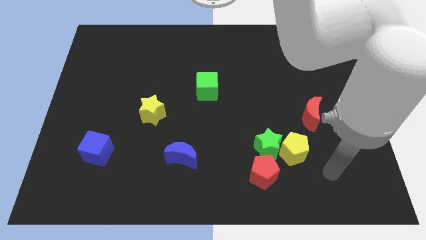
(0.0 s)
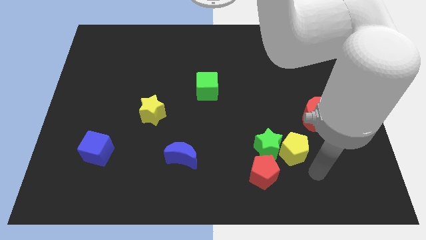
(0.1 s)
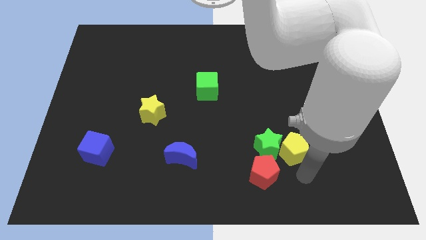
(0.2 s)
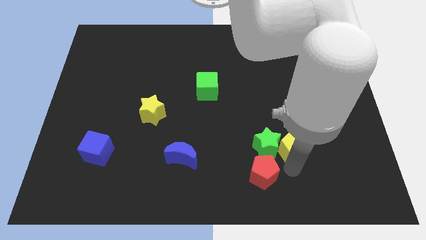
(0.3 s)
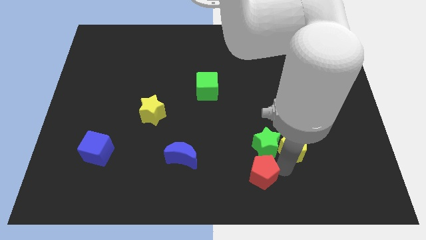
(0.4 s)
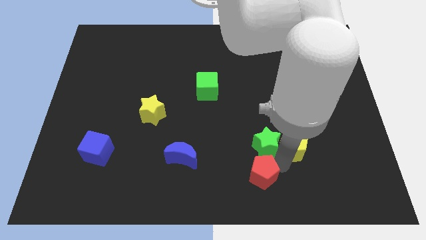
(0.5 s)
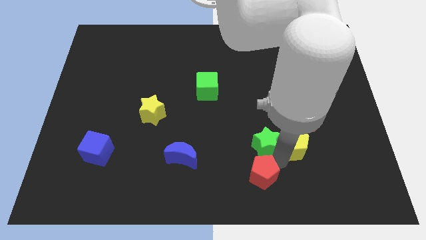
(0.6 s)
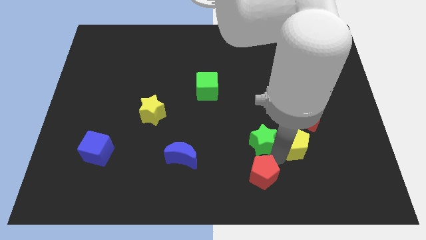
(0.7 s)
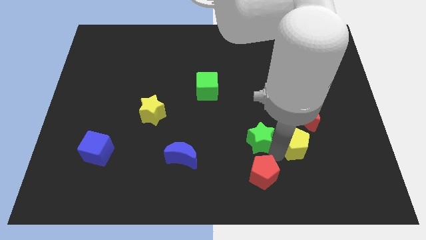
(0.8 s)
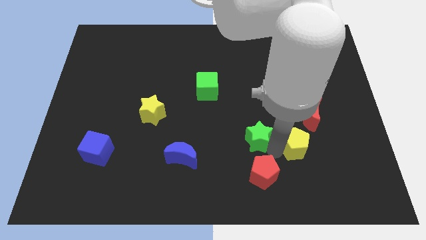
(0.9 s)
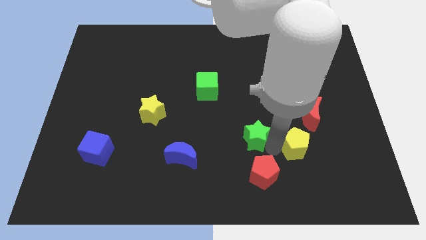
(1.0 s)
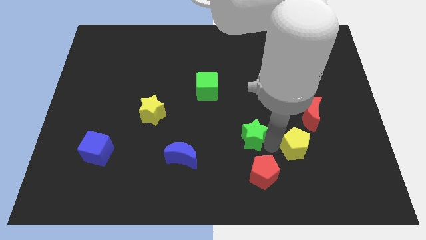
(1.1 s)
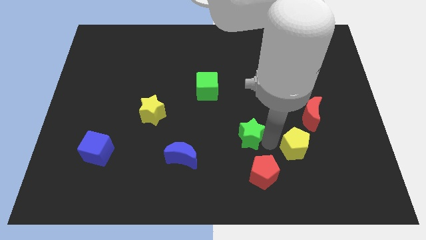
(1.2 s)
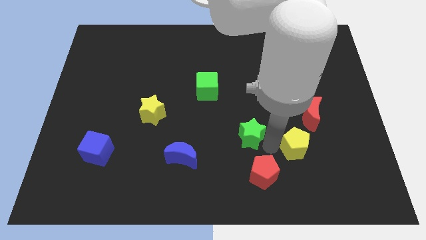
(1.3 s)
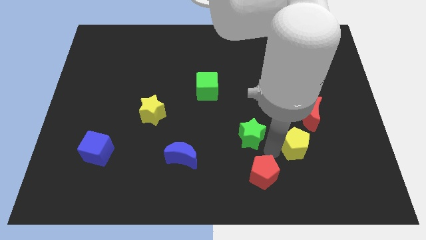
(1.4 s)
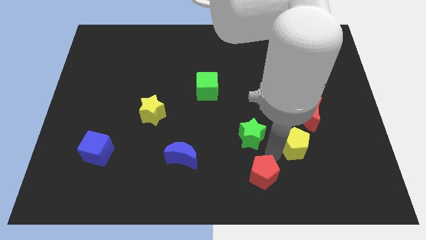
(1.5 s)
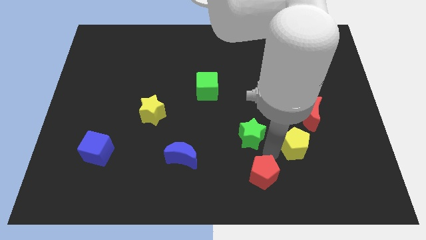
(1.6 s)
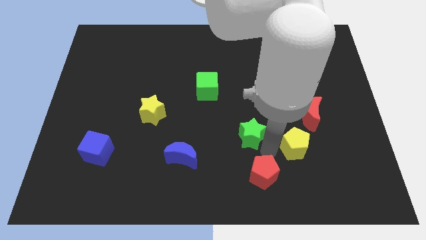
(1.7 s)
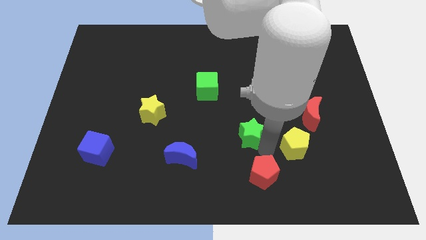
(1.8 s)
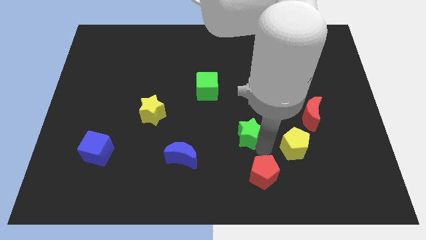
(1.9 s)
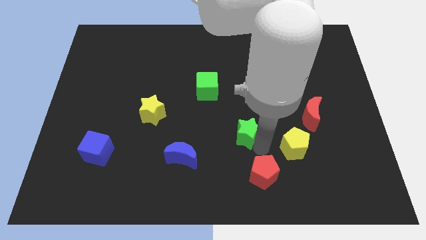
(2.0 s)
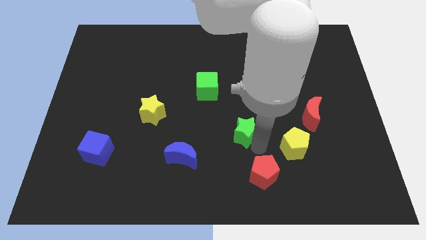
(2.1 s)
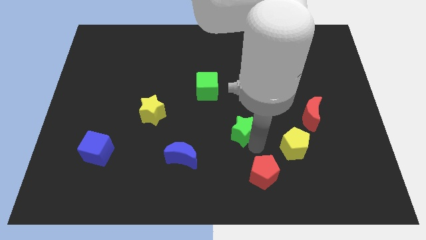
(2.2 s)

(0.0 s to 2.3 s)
move the green star away from the yellow pentagon and red pentagon

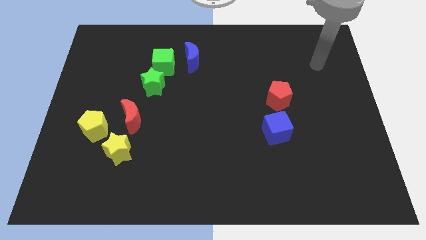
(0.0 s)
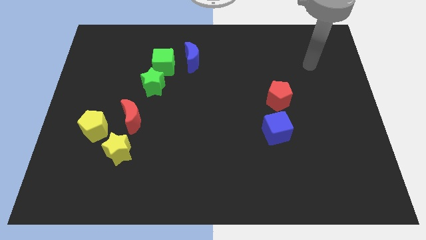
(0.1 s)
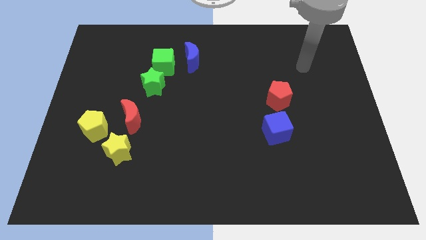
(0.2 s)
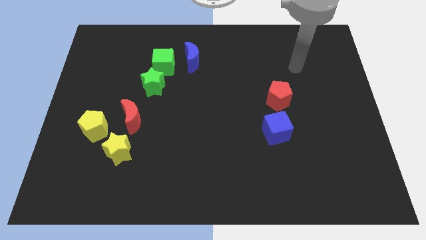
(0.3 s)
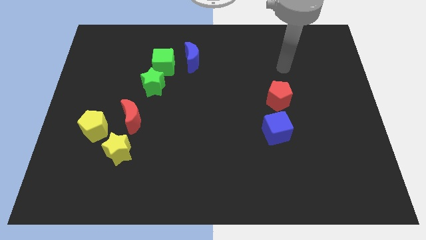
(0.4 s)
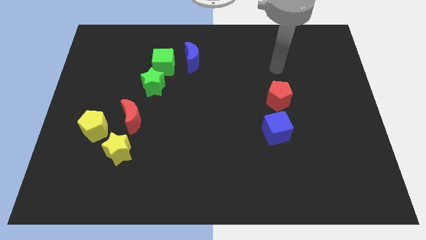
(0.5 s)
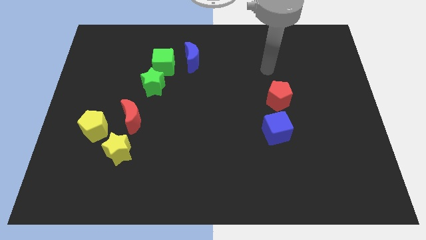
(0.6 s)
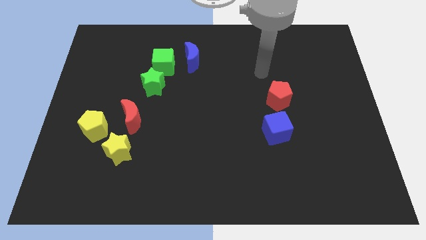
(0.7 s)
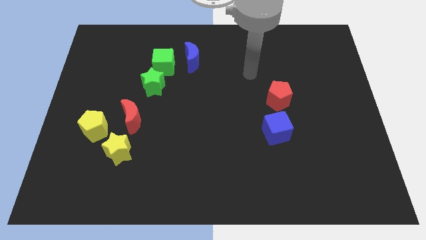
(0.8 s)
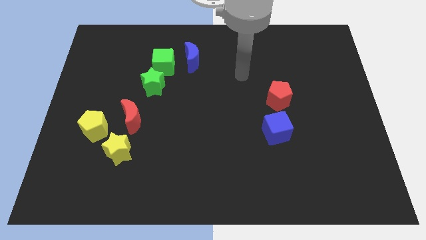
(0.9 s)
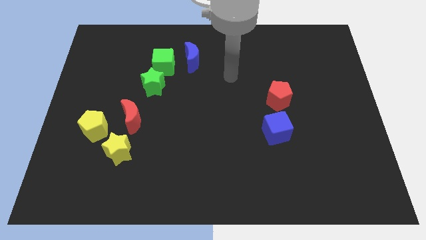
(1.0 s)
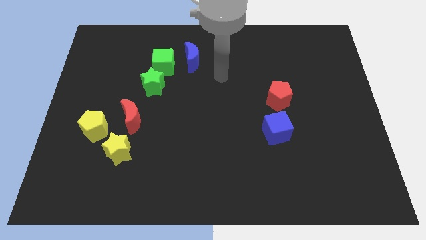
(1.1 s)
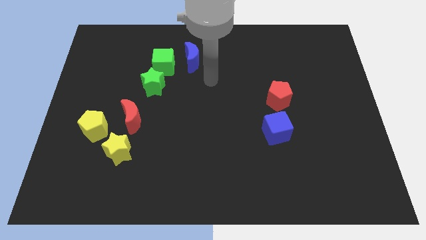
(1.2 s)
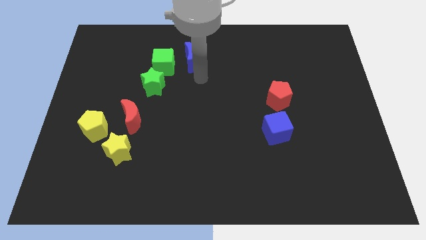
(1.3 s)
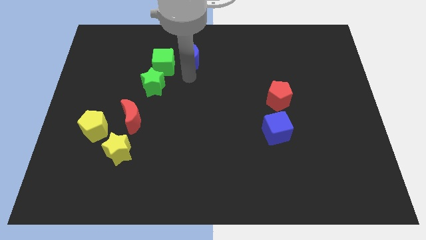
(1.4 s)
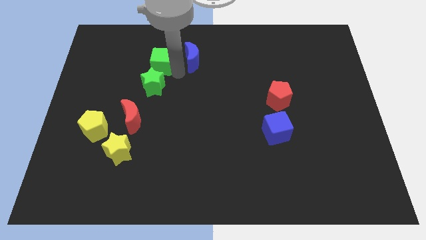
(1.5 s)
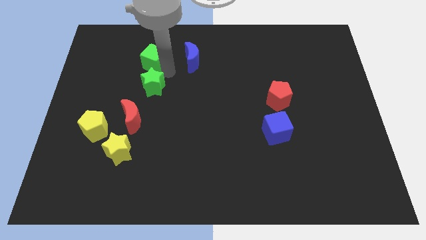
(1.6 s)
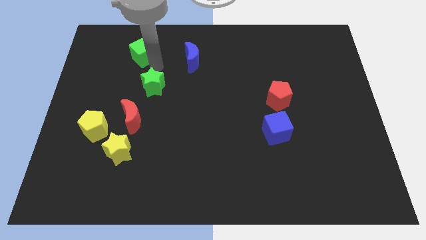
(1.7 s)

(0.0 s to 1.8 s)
pull the green star apart from the green cube

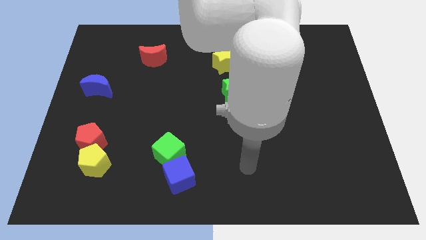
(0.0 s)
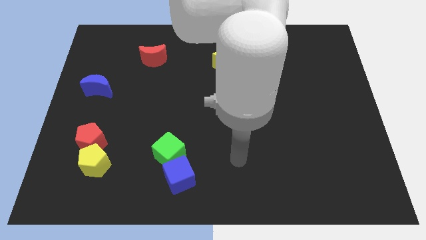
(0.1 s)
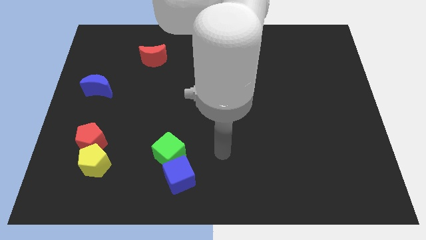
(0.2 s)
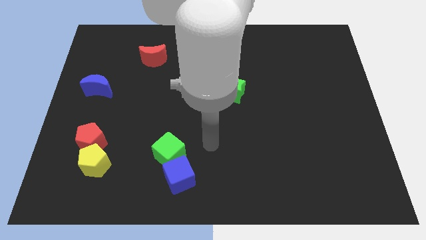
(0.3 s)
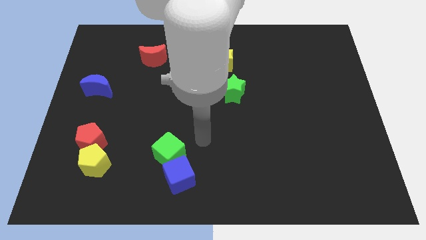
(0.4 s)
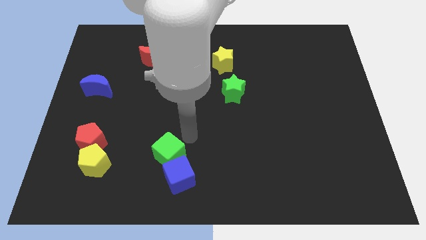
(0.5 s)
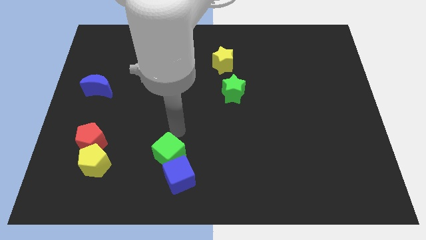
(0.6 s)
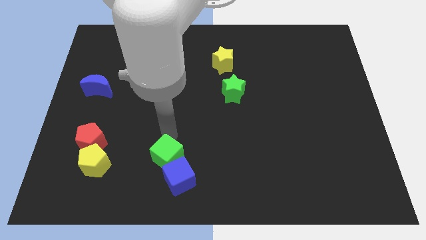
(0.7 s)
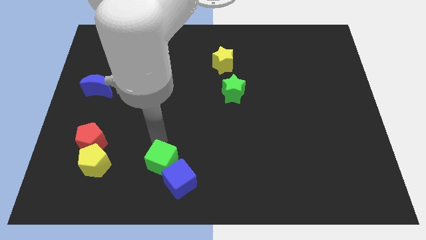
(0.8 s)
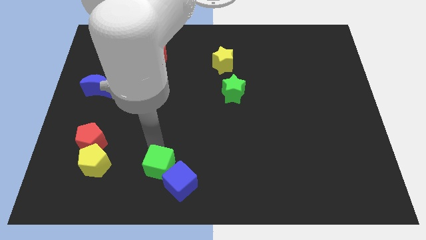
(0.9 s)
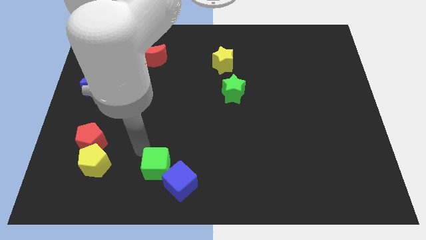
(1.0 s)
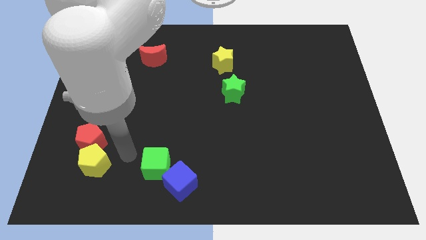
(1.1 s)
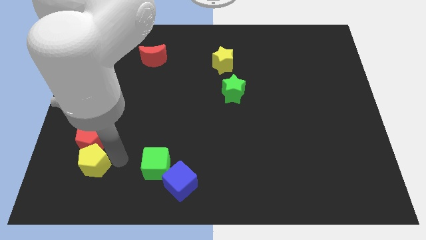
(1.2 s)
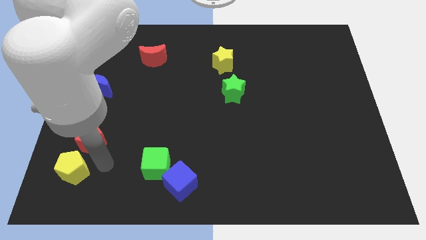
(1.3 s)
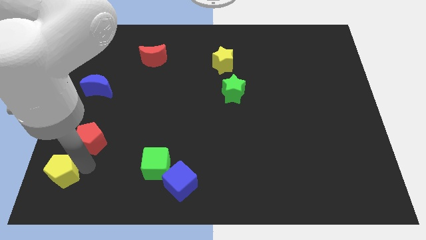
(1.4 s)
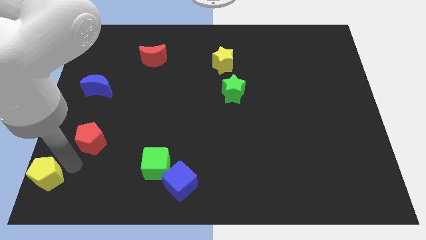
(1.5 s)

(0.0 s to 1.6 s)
separate the red pentagon from the yellow pentagon

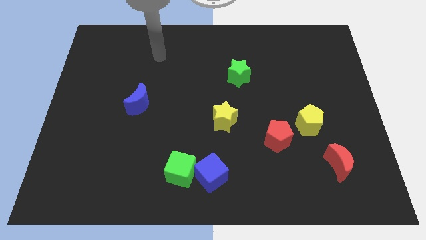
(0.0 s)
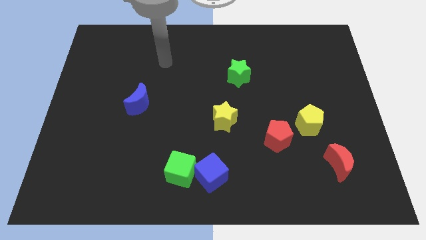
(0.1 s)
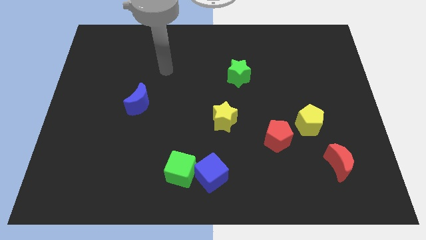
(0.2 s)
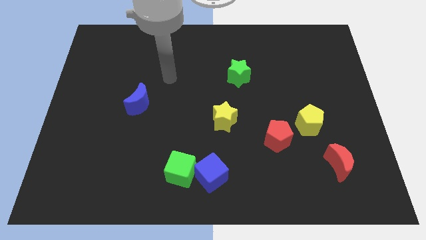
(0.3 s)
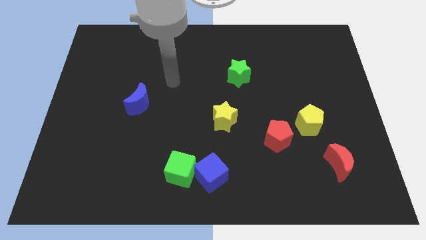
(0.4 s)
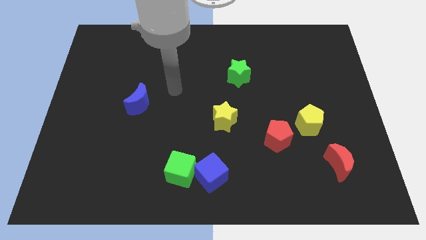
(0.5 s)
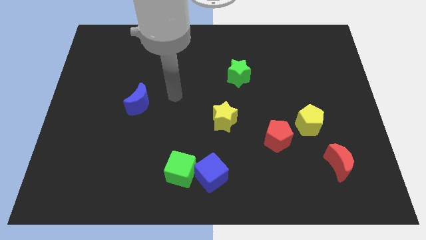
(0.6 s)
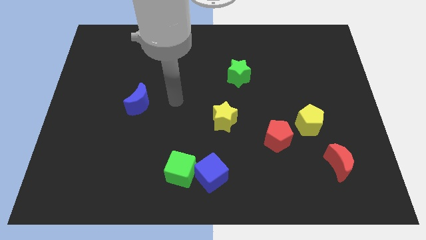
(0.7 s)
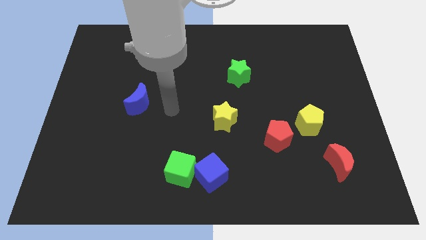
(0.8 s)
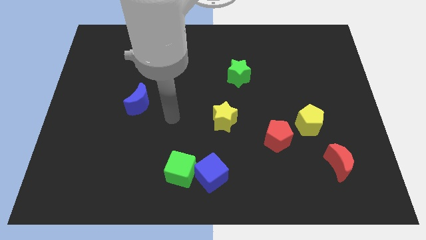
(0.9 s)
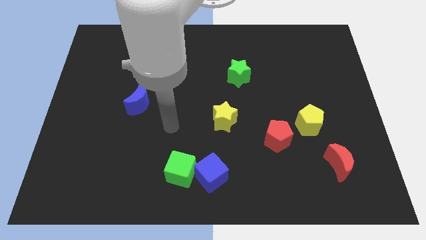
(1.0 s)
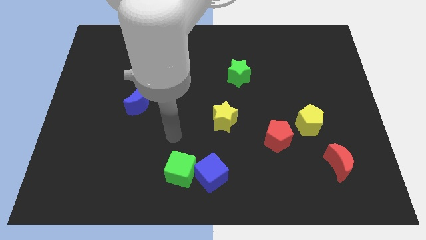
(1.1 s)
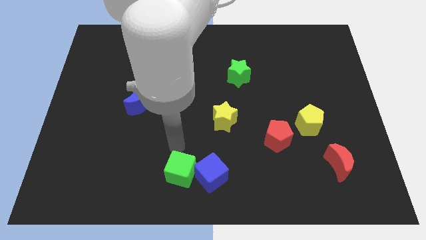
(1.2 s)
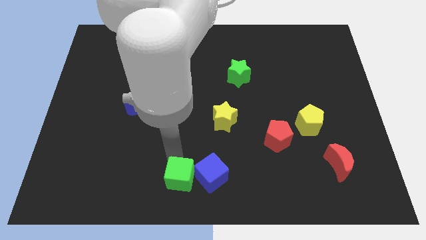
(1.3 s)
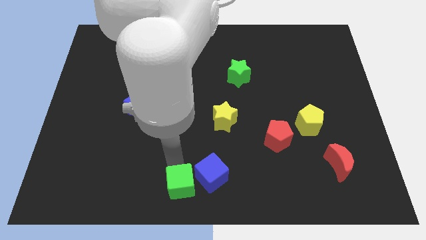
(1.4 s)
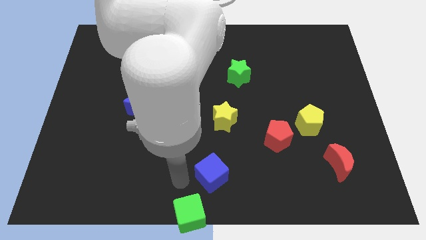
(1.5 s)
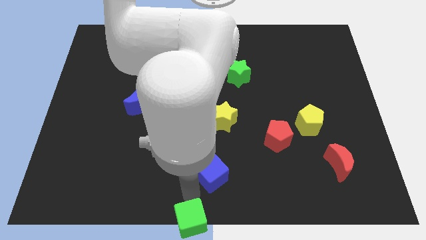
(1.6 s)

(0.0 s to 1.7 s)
pull the blue cube apart from the green cube

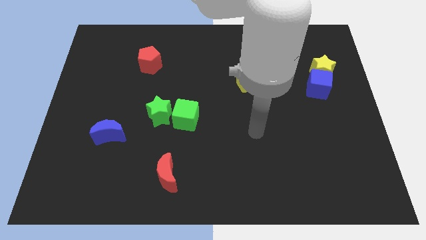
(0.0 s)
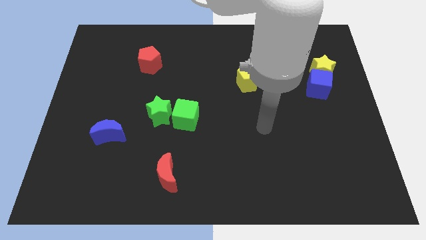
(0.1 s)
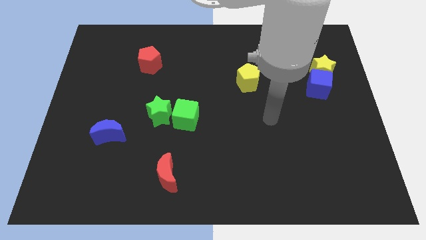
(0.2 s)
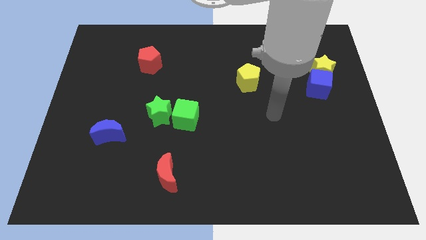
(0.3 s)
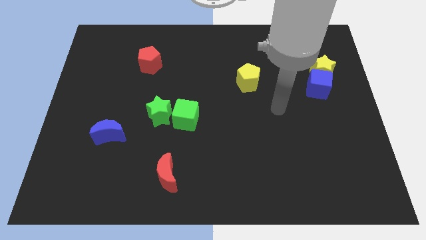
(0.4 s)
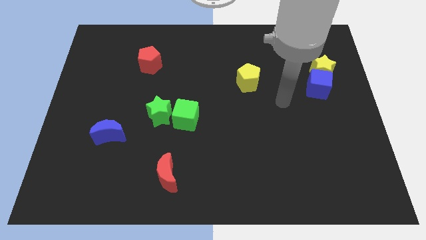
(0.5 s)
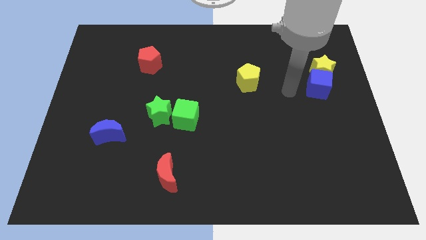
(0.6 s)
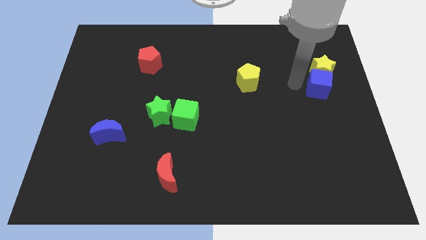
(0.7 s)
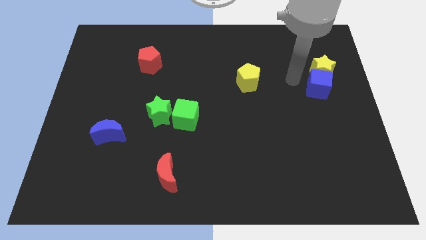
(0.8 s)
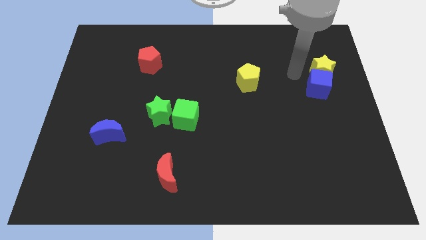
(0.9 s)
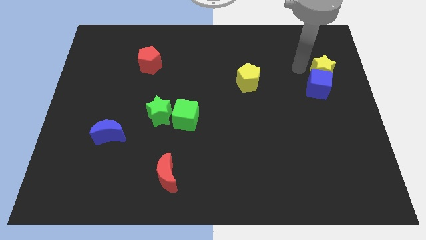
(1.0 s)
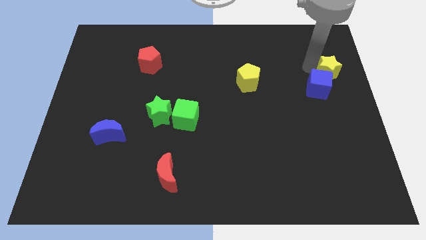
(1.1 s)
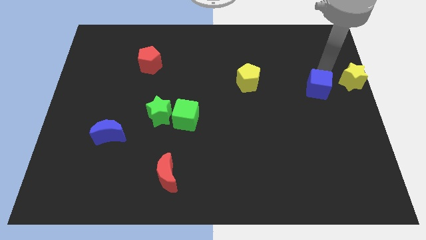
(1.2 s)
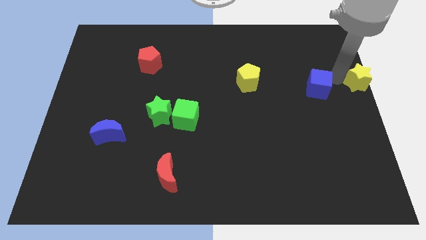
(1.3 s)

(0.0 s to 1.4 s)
separate the blue cube from the yellow star

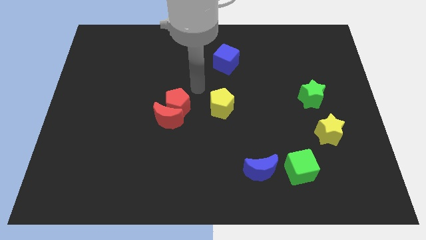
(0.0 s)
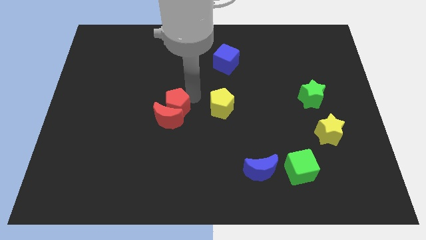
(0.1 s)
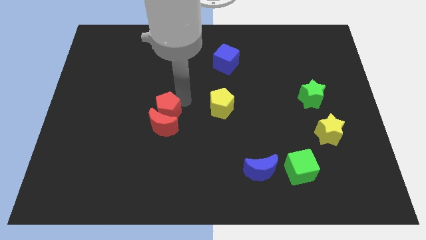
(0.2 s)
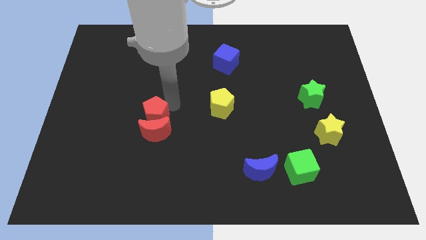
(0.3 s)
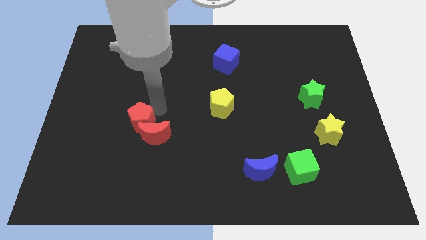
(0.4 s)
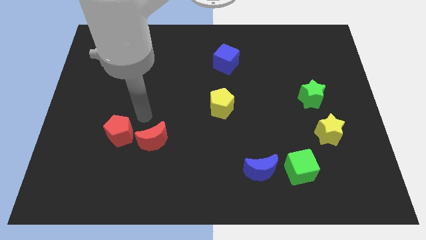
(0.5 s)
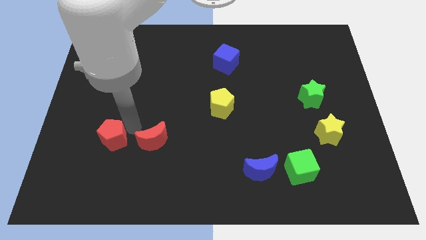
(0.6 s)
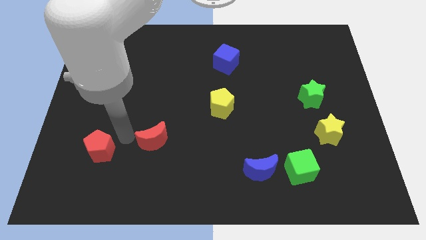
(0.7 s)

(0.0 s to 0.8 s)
pull the red moon apart from the red pentagon
